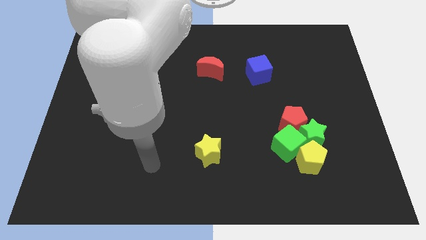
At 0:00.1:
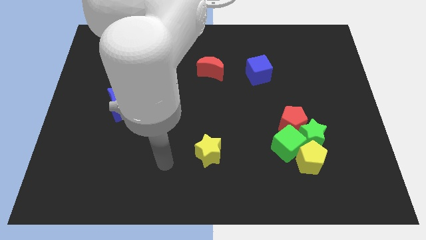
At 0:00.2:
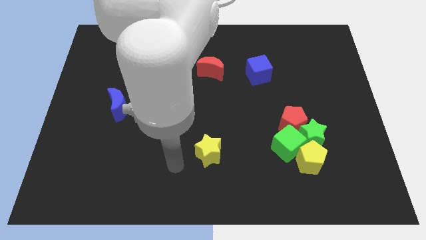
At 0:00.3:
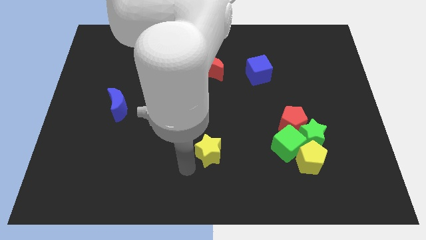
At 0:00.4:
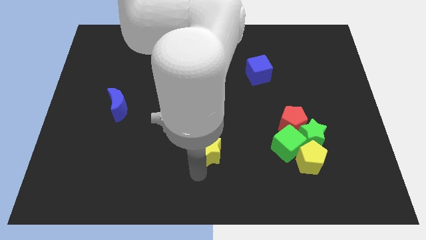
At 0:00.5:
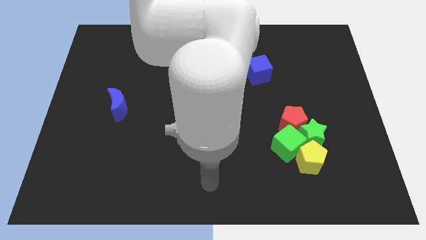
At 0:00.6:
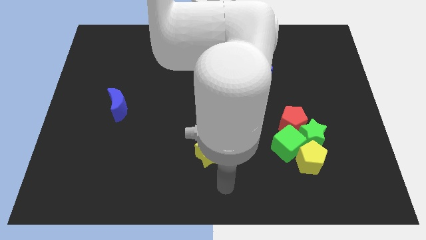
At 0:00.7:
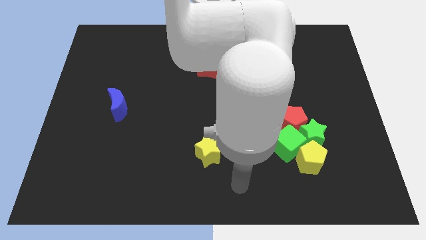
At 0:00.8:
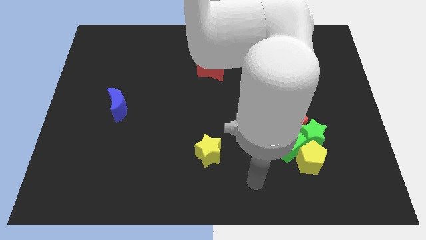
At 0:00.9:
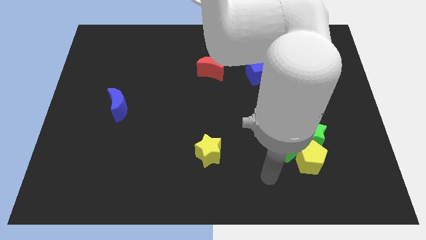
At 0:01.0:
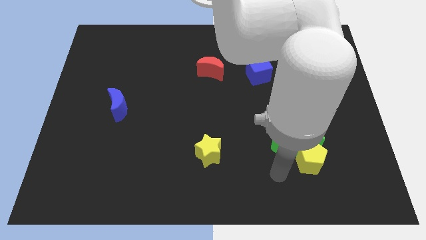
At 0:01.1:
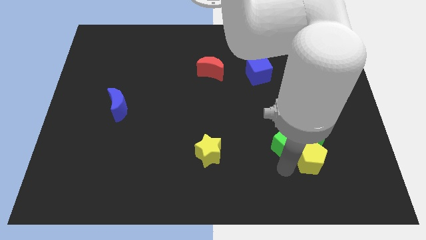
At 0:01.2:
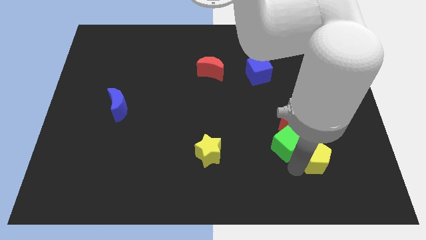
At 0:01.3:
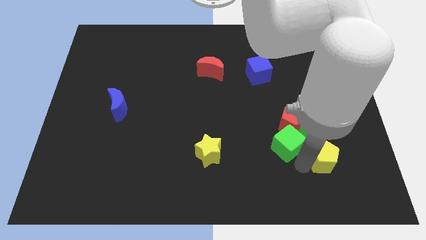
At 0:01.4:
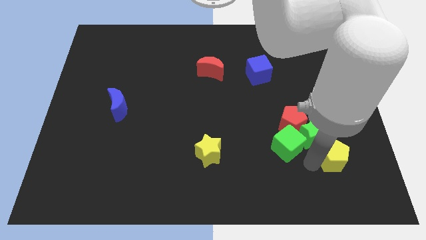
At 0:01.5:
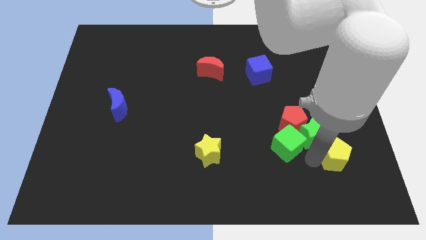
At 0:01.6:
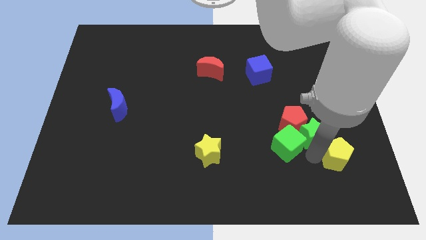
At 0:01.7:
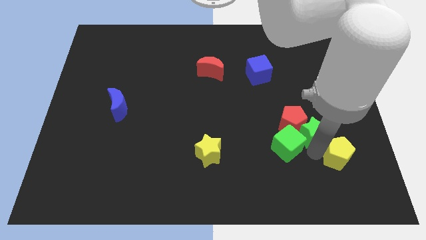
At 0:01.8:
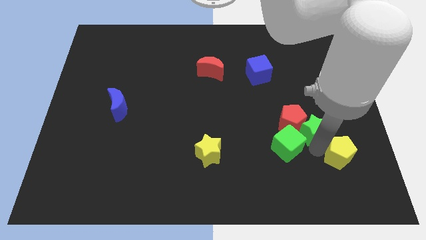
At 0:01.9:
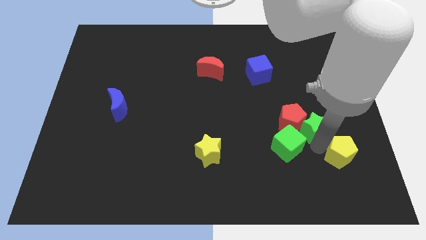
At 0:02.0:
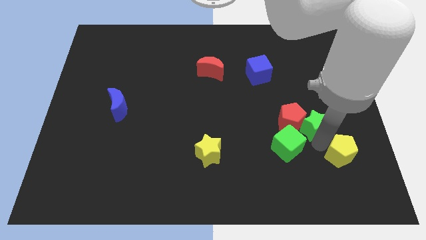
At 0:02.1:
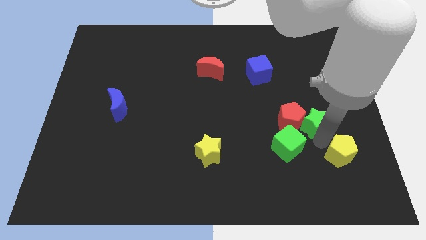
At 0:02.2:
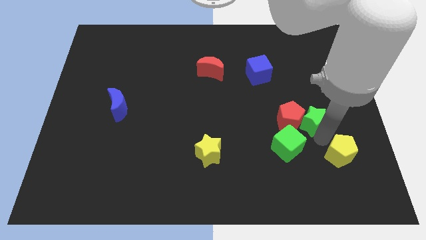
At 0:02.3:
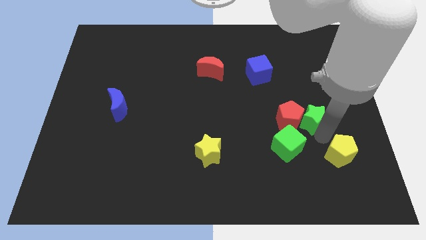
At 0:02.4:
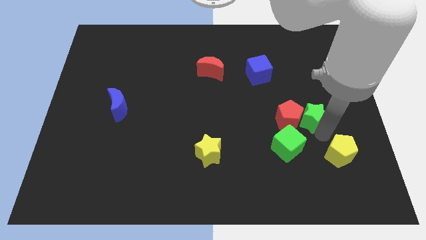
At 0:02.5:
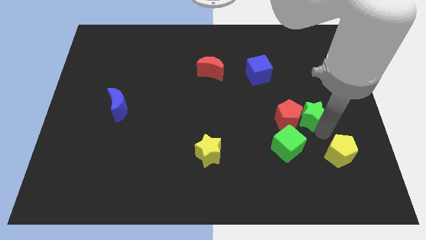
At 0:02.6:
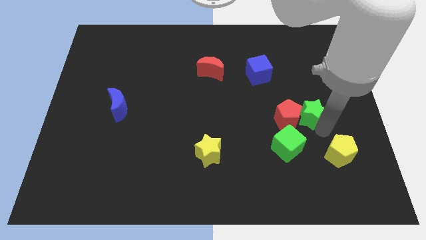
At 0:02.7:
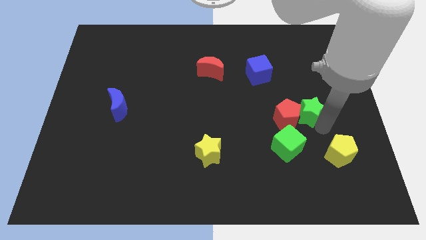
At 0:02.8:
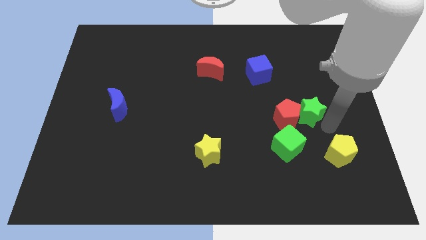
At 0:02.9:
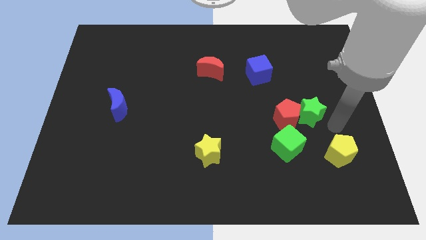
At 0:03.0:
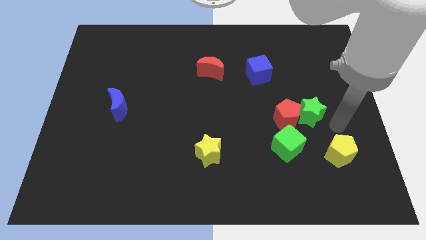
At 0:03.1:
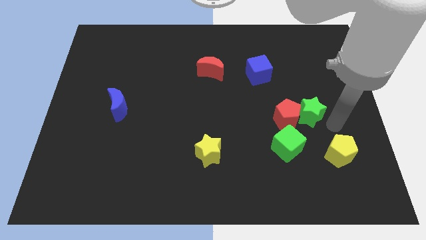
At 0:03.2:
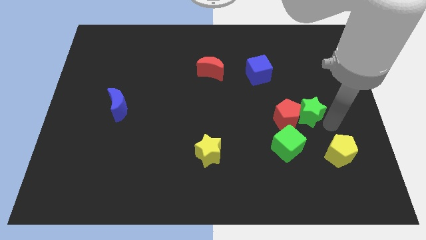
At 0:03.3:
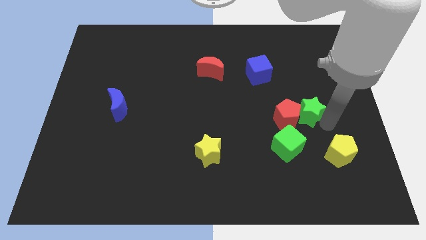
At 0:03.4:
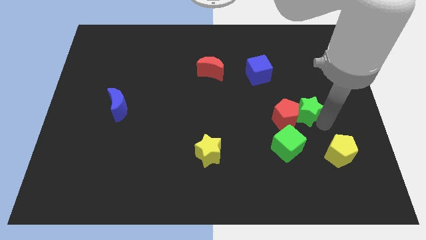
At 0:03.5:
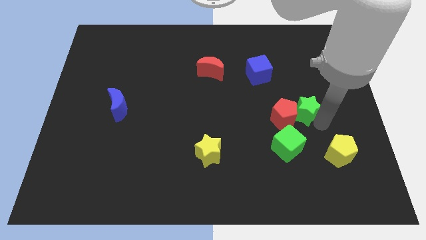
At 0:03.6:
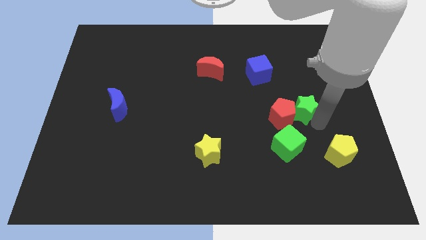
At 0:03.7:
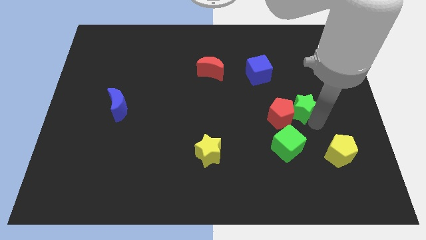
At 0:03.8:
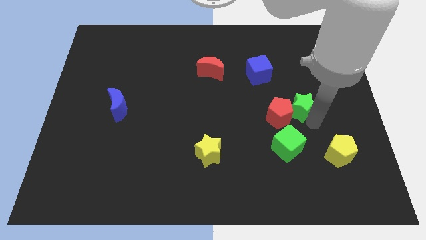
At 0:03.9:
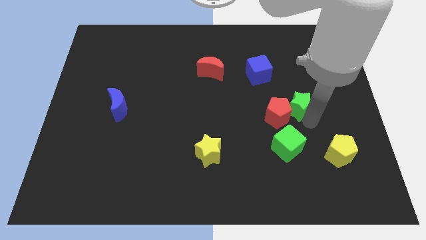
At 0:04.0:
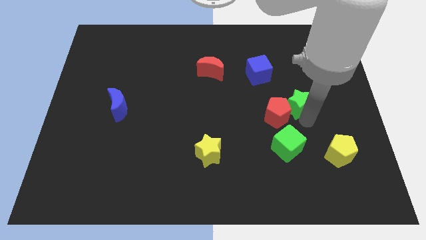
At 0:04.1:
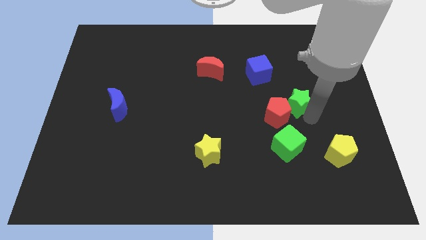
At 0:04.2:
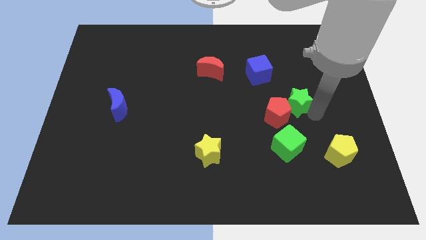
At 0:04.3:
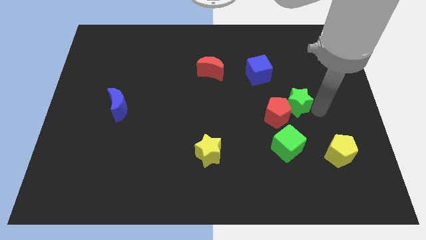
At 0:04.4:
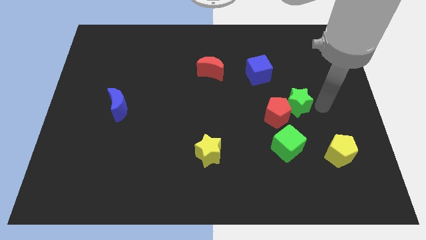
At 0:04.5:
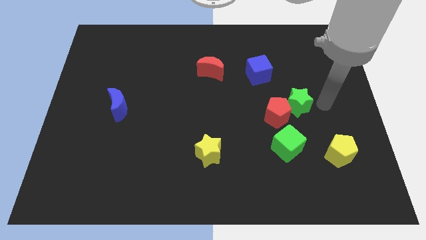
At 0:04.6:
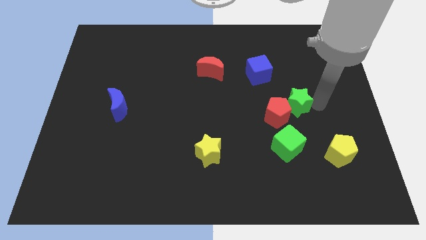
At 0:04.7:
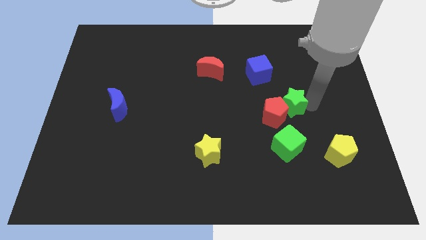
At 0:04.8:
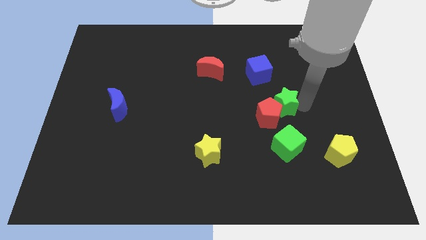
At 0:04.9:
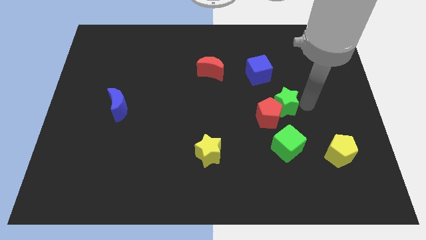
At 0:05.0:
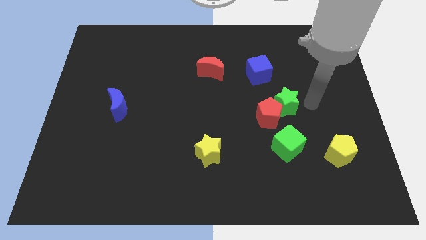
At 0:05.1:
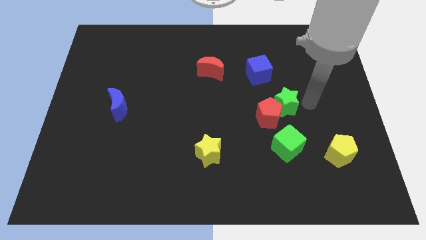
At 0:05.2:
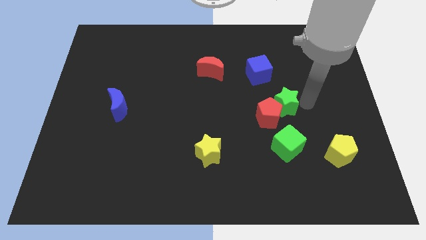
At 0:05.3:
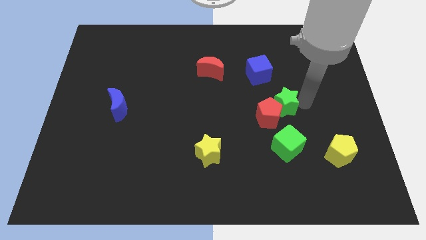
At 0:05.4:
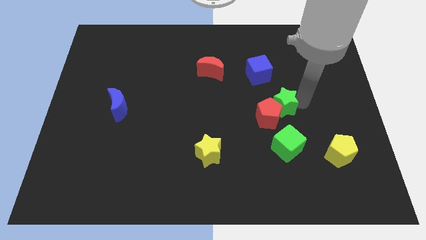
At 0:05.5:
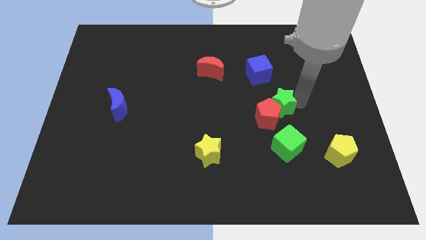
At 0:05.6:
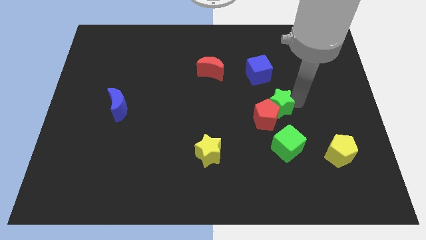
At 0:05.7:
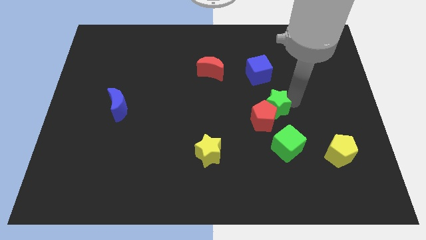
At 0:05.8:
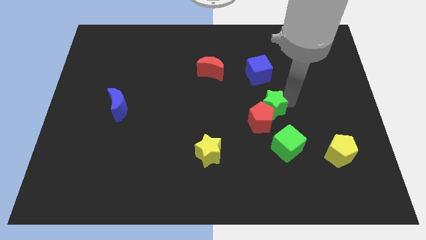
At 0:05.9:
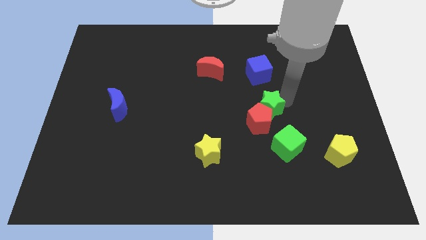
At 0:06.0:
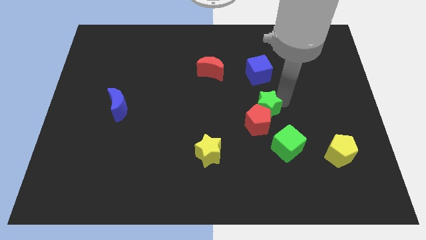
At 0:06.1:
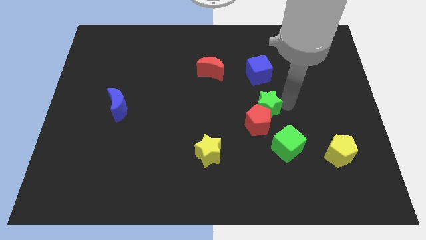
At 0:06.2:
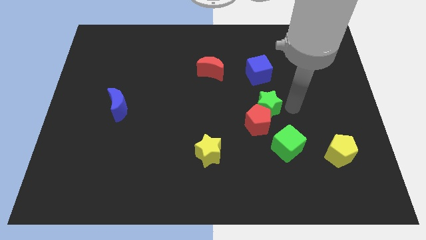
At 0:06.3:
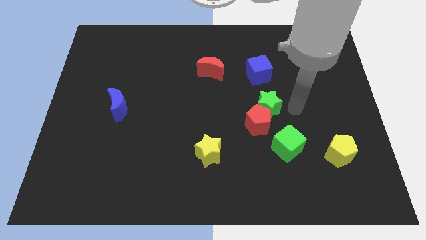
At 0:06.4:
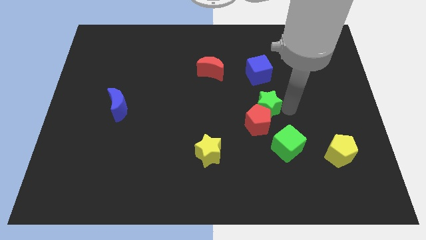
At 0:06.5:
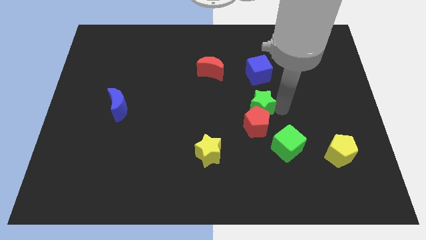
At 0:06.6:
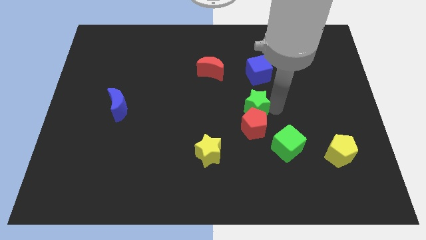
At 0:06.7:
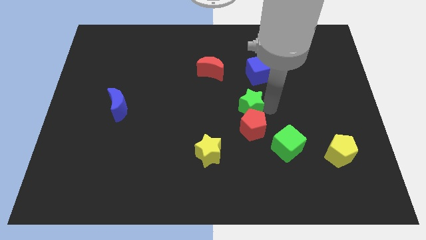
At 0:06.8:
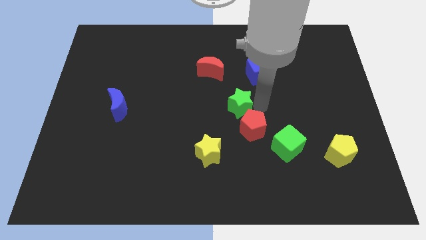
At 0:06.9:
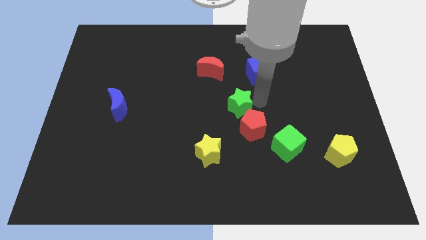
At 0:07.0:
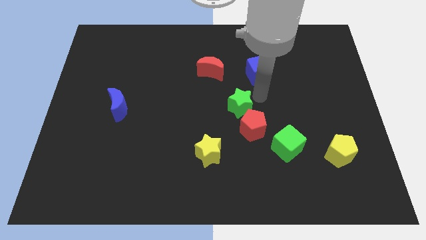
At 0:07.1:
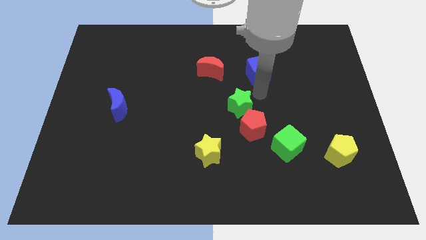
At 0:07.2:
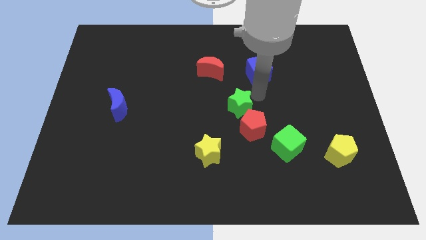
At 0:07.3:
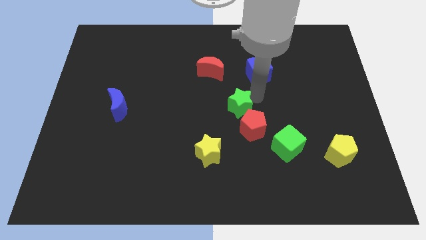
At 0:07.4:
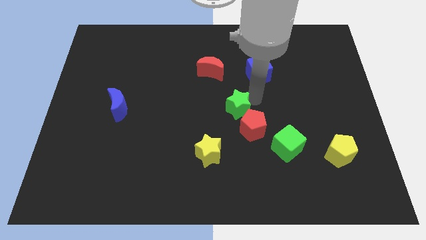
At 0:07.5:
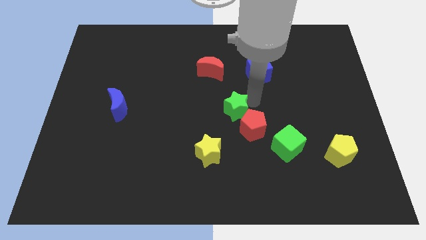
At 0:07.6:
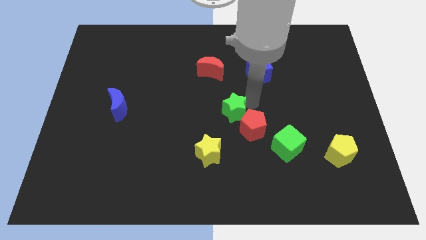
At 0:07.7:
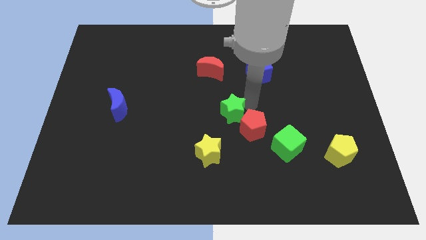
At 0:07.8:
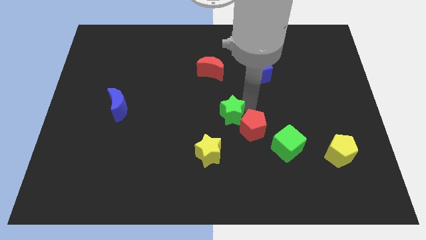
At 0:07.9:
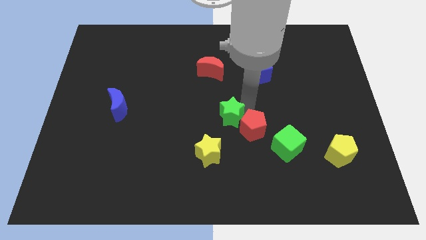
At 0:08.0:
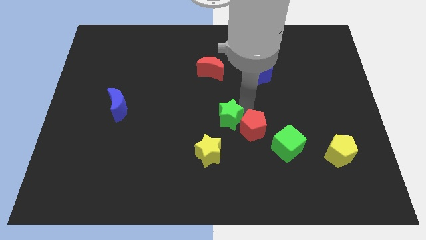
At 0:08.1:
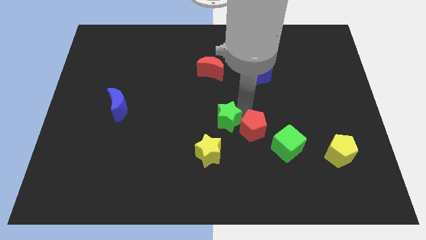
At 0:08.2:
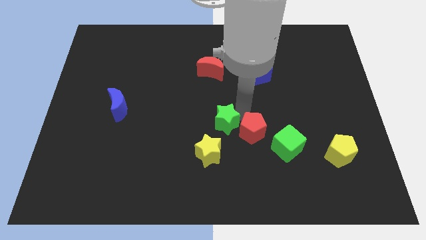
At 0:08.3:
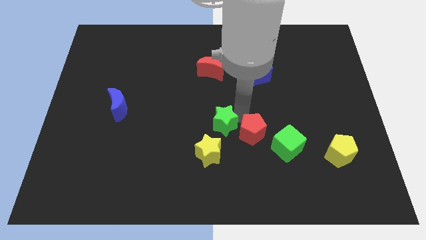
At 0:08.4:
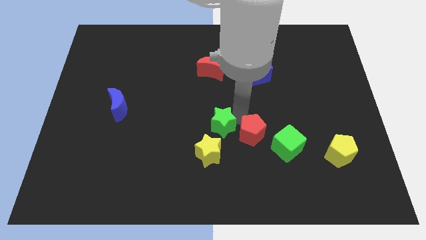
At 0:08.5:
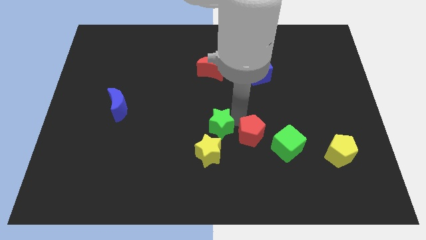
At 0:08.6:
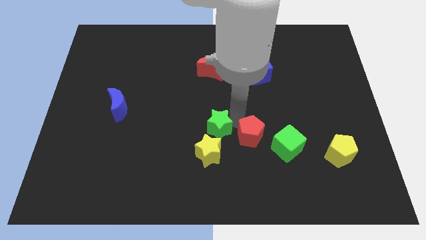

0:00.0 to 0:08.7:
move the green star to the left
